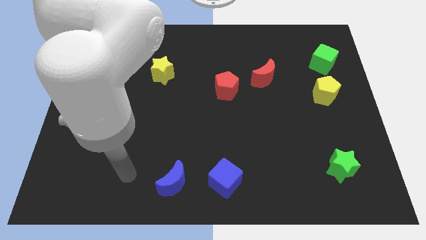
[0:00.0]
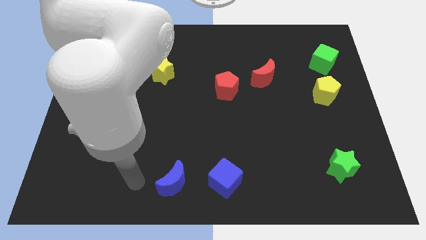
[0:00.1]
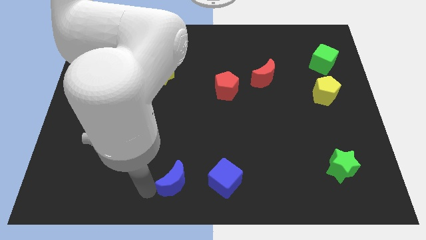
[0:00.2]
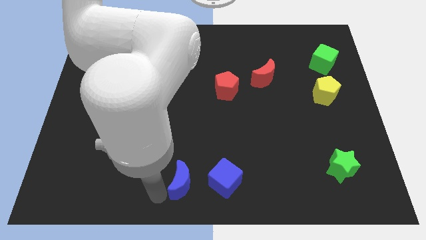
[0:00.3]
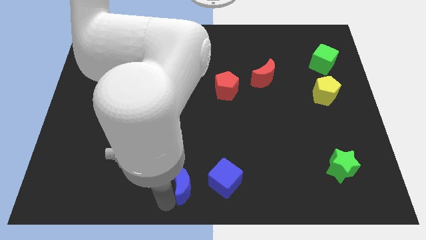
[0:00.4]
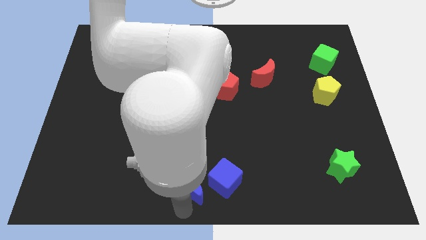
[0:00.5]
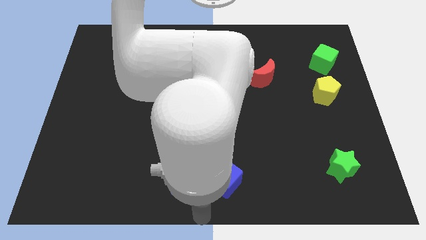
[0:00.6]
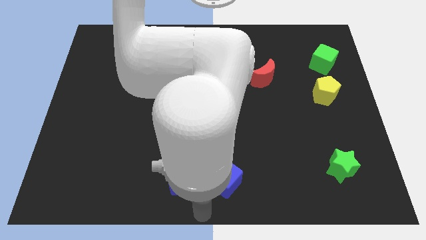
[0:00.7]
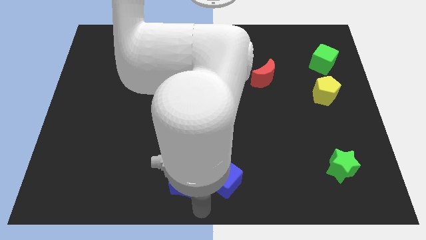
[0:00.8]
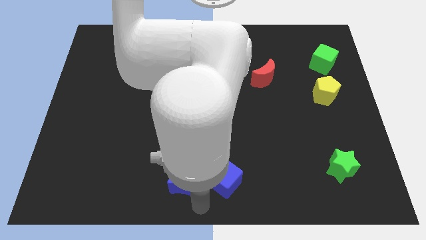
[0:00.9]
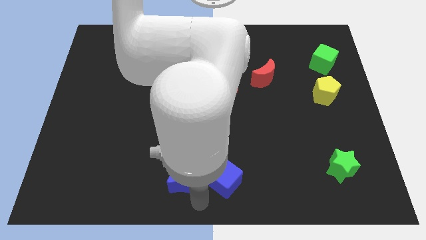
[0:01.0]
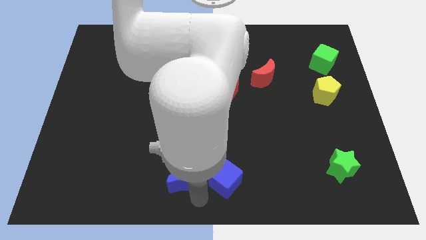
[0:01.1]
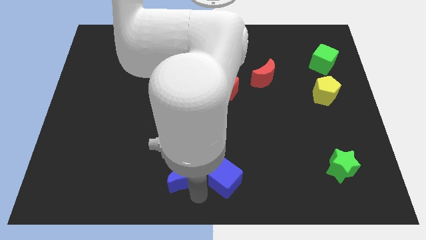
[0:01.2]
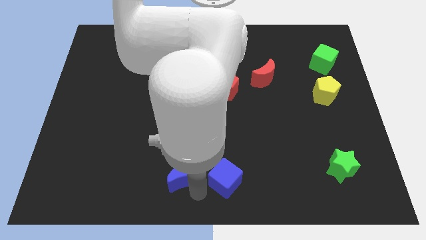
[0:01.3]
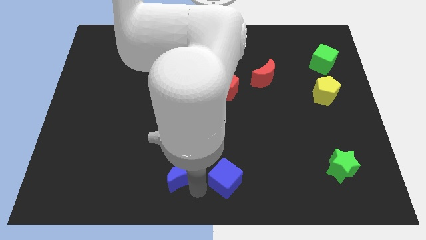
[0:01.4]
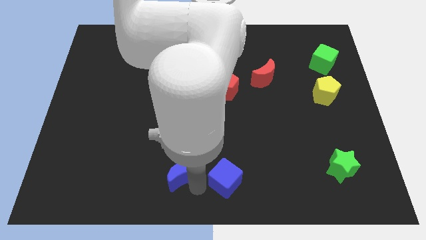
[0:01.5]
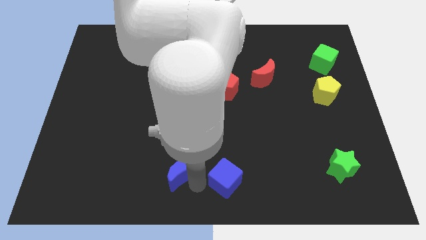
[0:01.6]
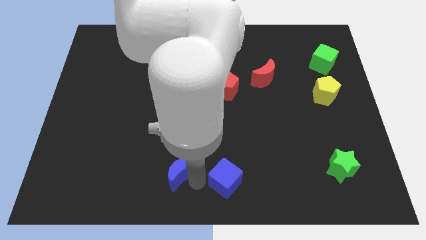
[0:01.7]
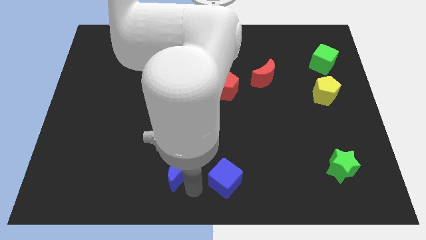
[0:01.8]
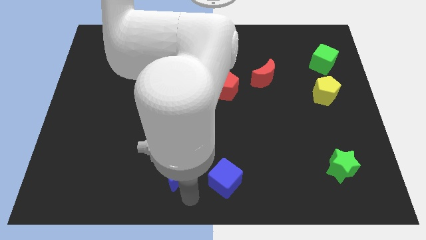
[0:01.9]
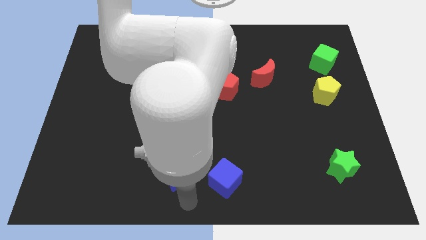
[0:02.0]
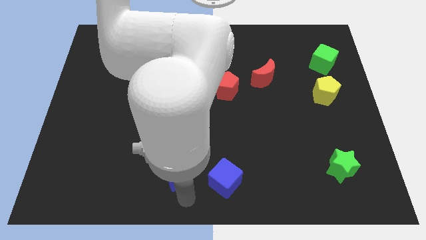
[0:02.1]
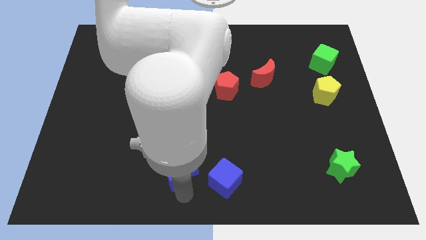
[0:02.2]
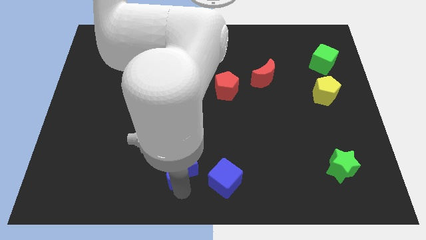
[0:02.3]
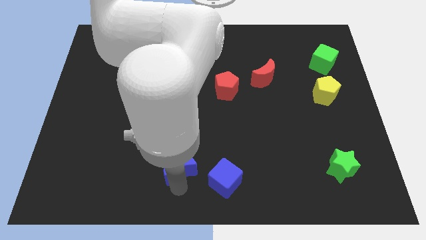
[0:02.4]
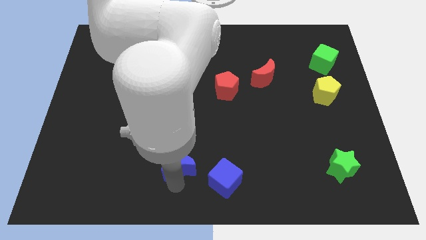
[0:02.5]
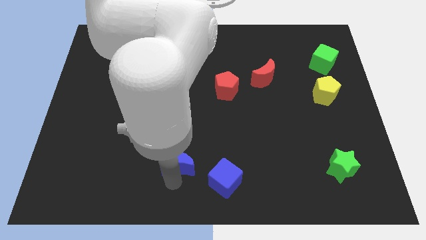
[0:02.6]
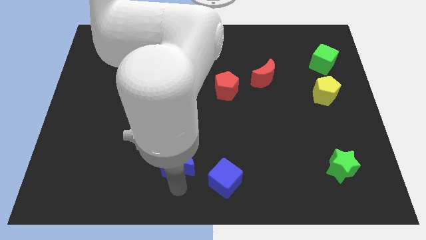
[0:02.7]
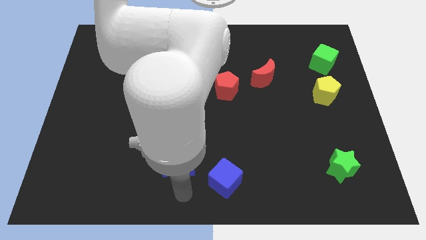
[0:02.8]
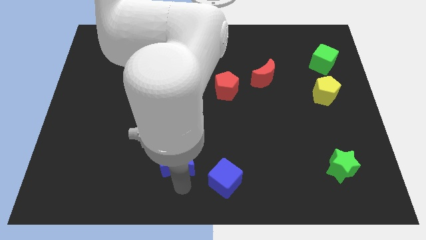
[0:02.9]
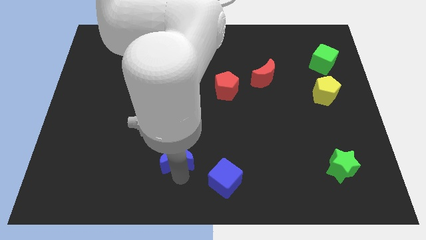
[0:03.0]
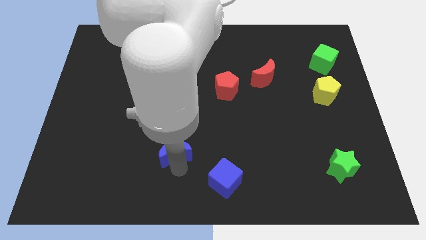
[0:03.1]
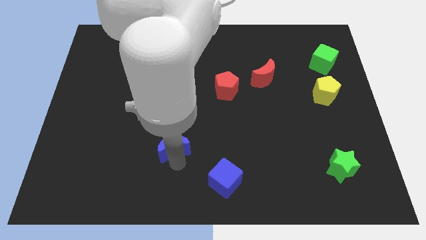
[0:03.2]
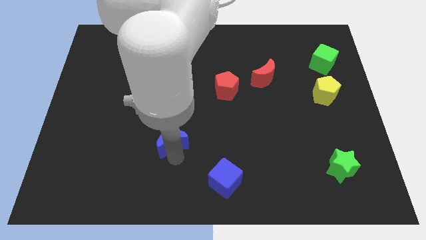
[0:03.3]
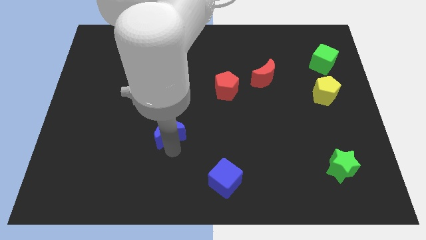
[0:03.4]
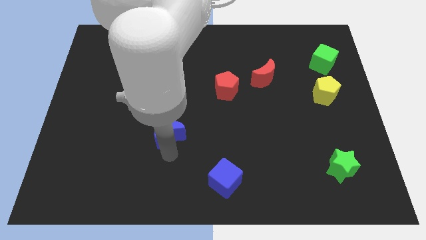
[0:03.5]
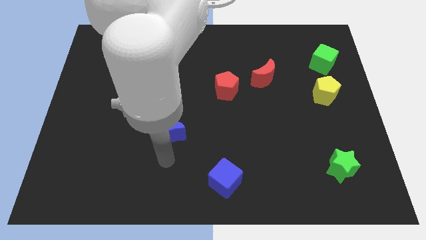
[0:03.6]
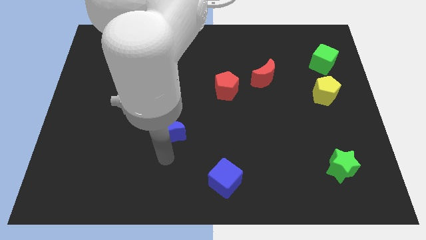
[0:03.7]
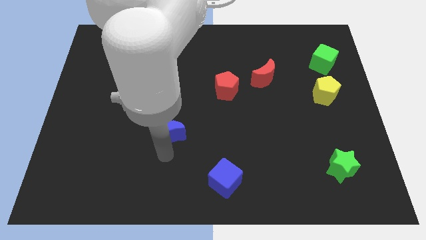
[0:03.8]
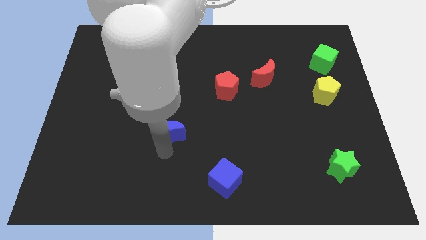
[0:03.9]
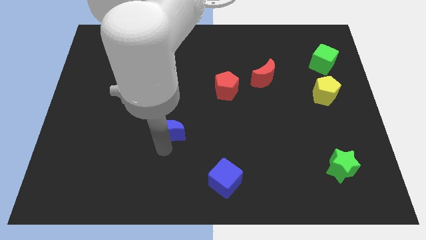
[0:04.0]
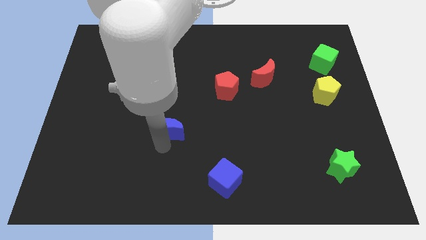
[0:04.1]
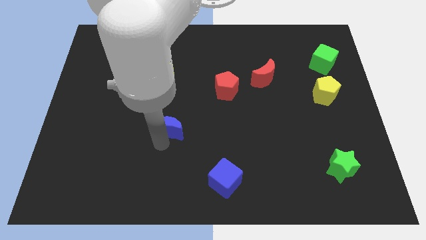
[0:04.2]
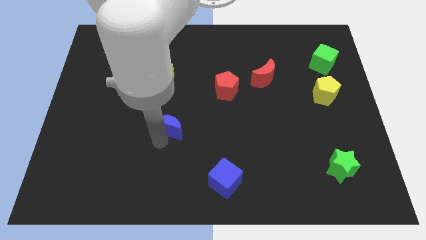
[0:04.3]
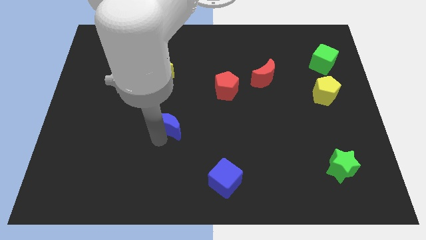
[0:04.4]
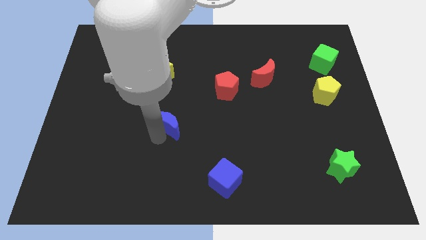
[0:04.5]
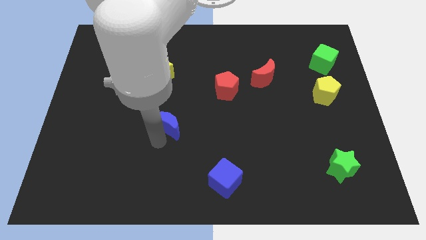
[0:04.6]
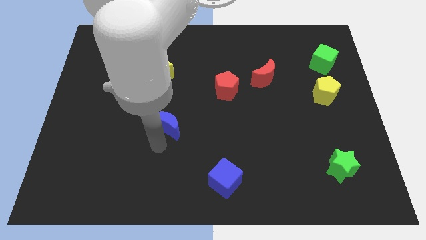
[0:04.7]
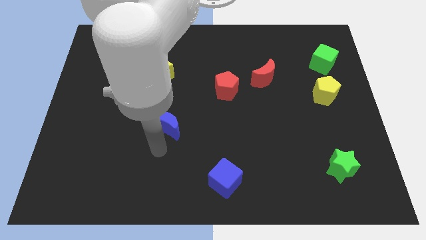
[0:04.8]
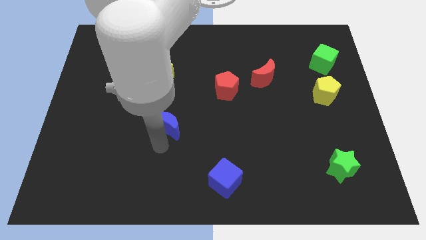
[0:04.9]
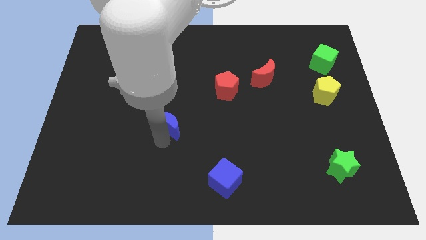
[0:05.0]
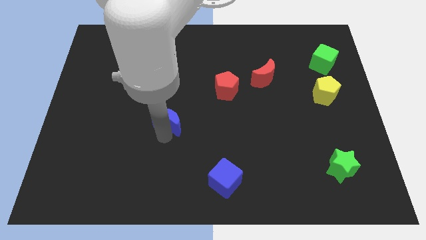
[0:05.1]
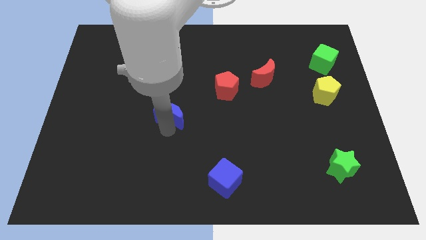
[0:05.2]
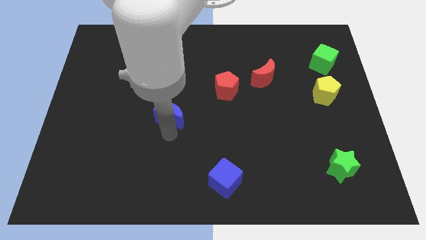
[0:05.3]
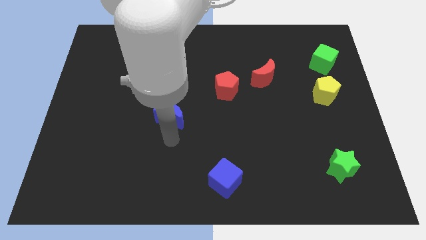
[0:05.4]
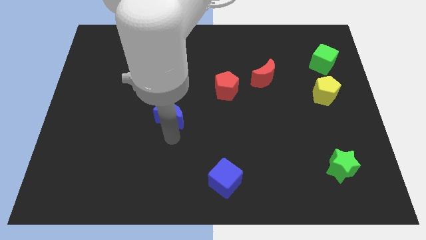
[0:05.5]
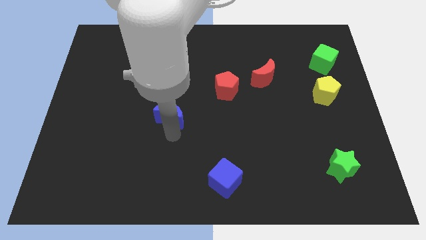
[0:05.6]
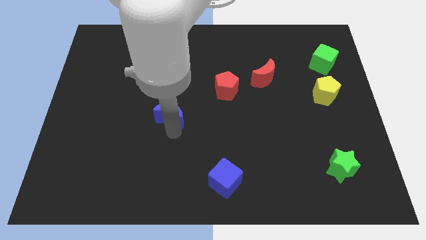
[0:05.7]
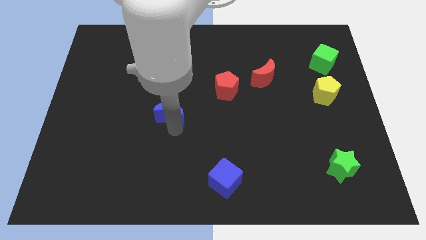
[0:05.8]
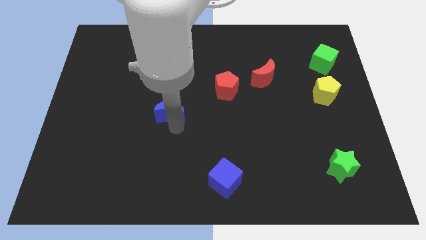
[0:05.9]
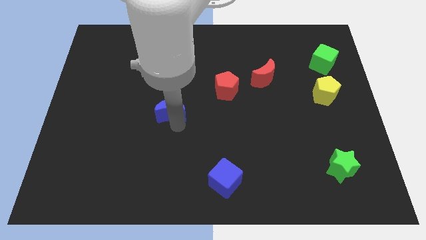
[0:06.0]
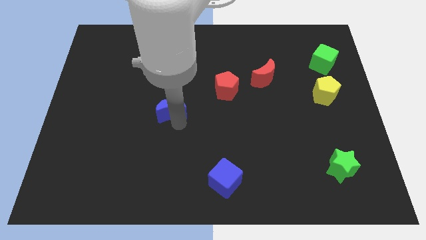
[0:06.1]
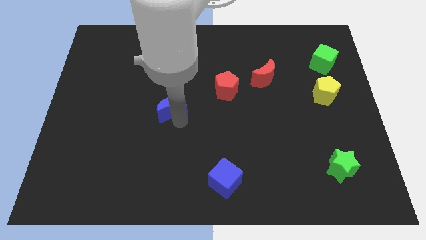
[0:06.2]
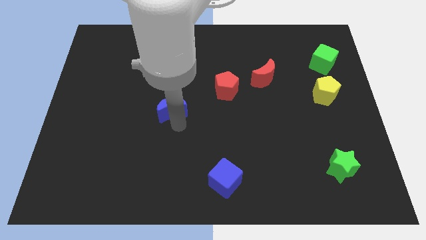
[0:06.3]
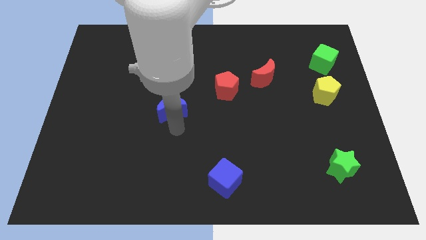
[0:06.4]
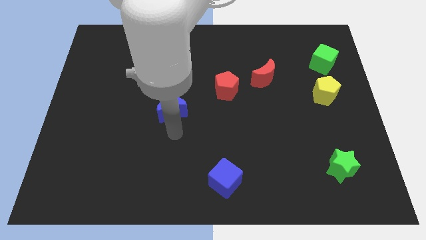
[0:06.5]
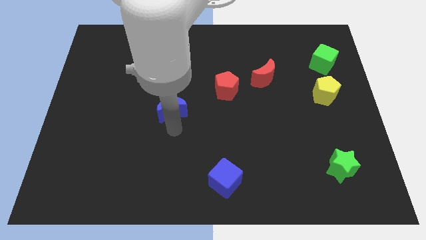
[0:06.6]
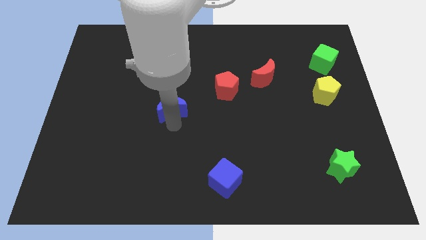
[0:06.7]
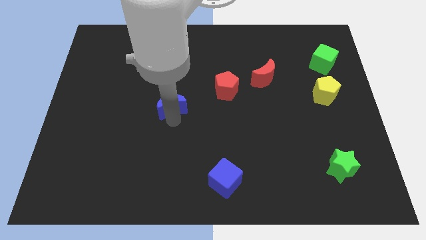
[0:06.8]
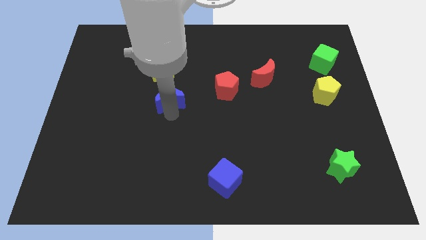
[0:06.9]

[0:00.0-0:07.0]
move the blue moon upwards

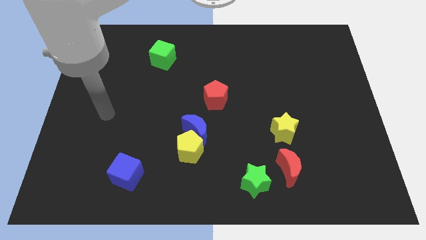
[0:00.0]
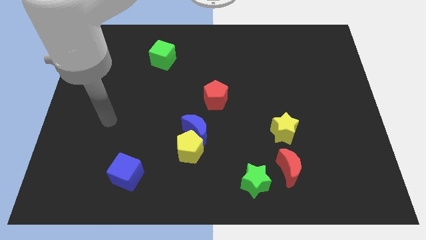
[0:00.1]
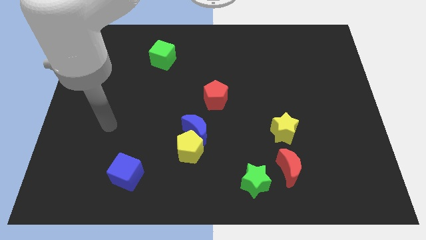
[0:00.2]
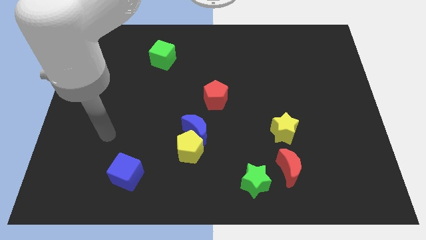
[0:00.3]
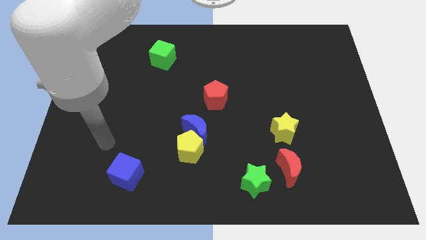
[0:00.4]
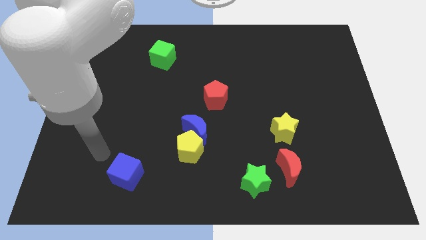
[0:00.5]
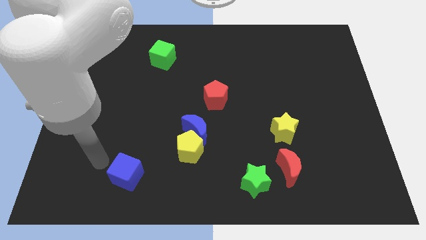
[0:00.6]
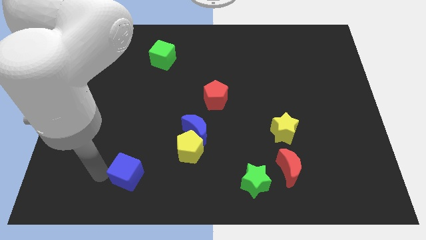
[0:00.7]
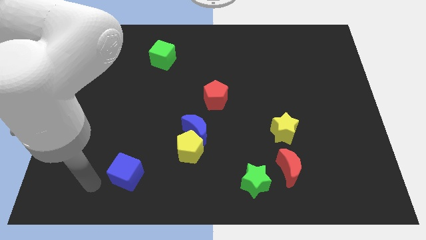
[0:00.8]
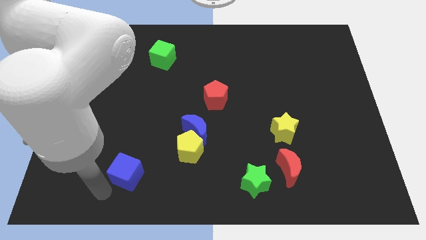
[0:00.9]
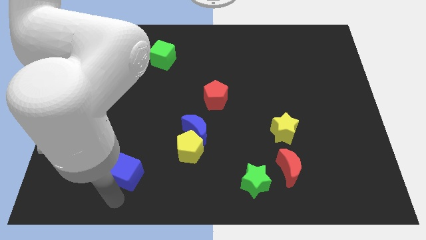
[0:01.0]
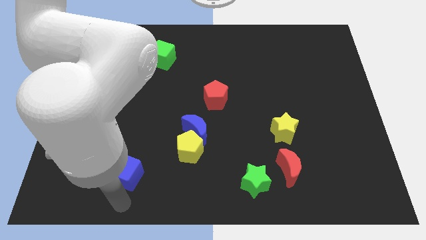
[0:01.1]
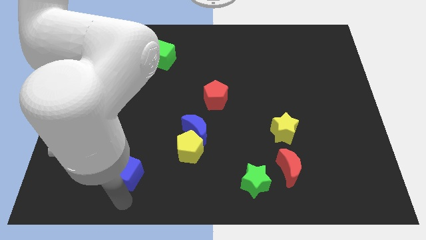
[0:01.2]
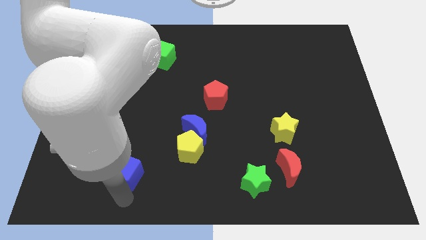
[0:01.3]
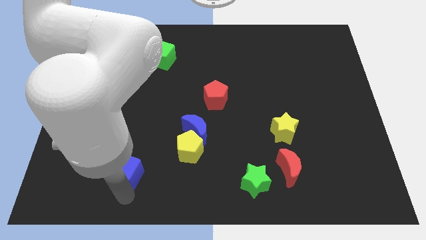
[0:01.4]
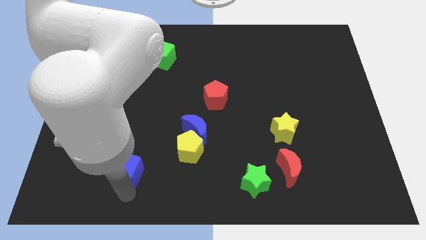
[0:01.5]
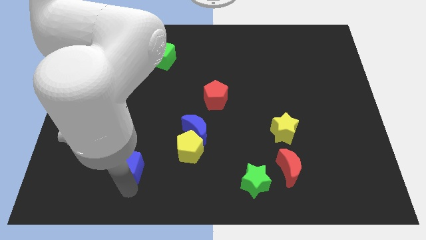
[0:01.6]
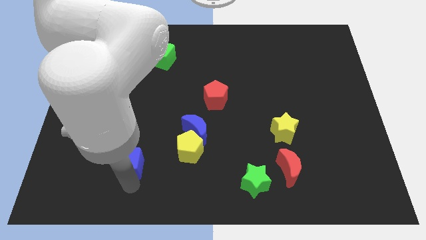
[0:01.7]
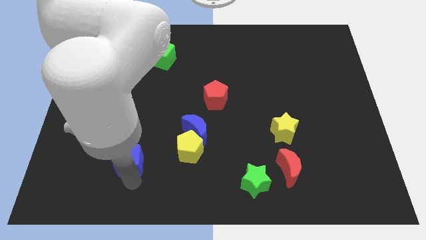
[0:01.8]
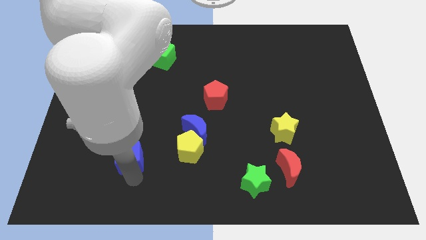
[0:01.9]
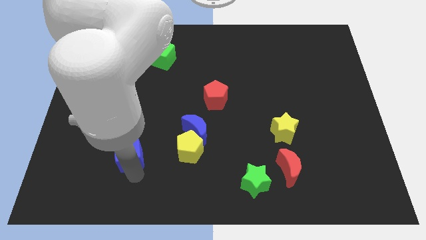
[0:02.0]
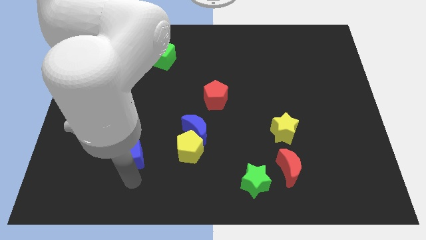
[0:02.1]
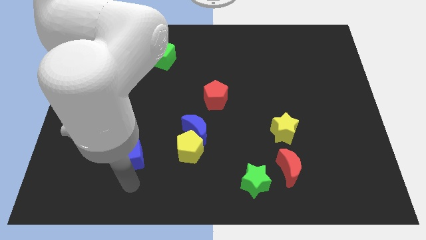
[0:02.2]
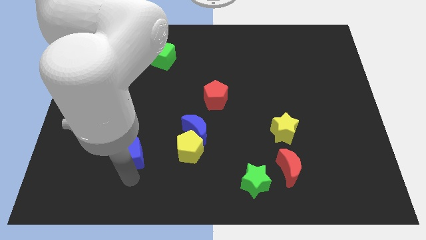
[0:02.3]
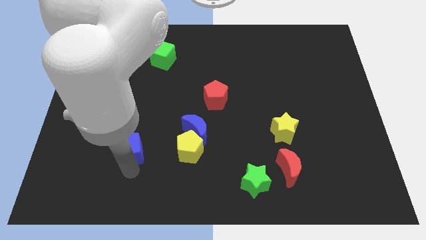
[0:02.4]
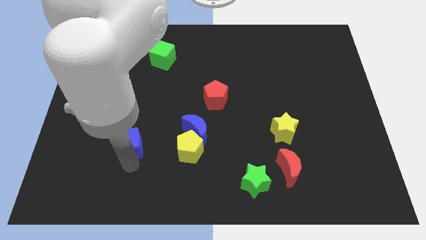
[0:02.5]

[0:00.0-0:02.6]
slide the blue cube up a little bit
